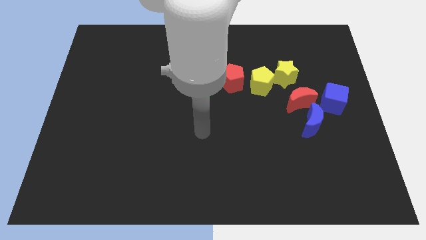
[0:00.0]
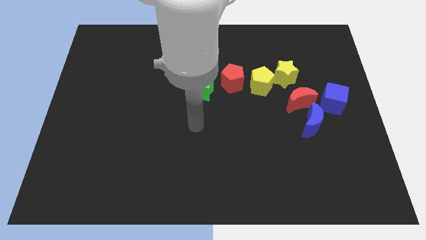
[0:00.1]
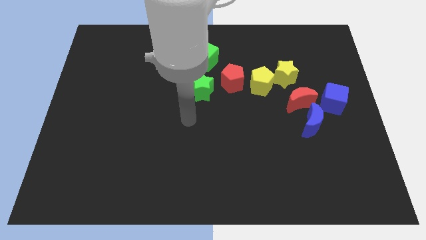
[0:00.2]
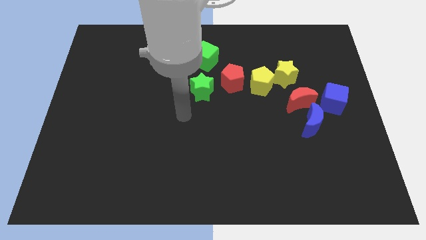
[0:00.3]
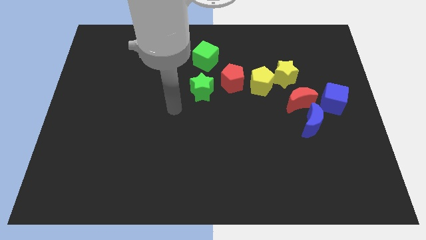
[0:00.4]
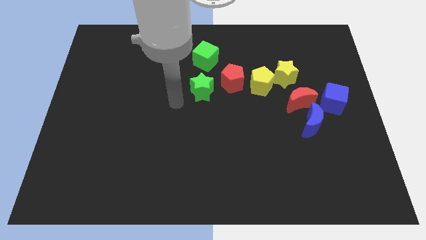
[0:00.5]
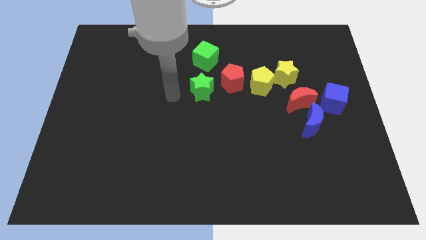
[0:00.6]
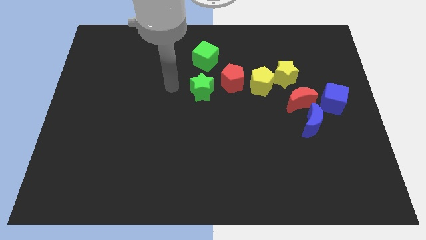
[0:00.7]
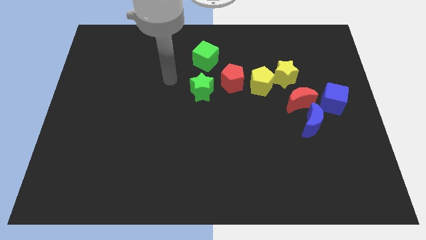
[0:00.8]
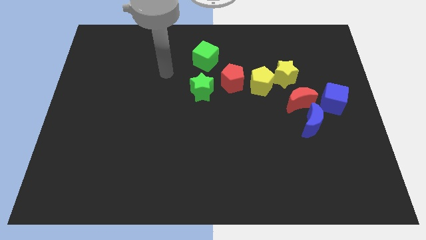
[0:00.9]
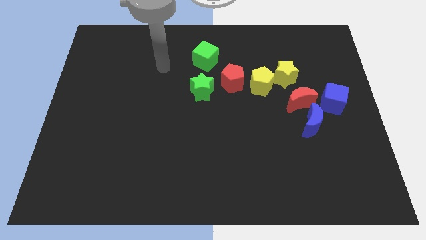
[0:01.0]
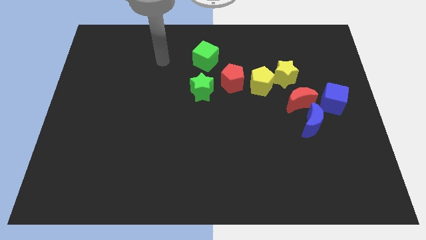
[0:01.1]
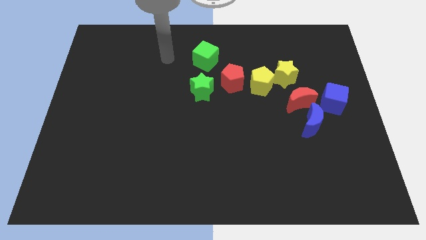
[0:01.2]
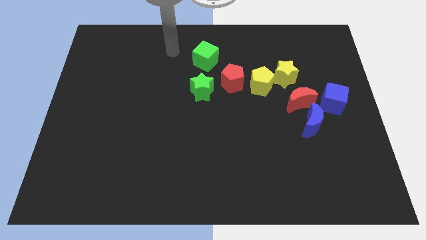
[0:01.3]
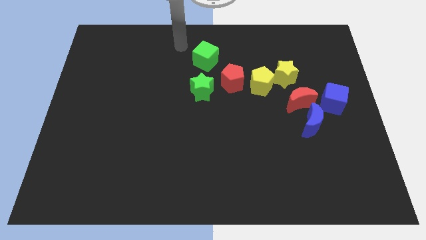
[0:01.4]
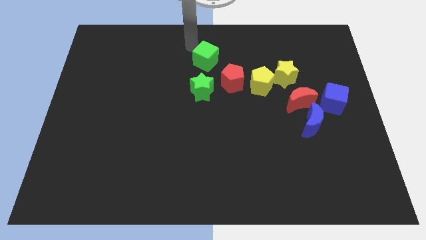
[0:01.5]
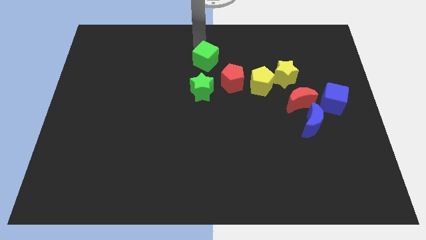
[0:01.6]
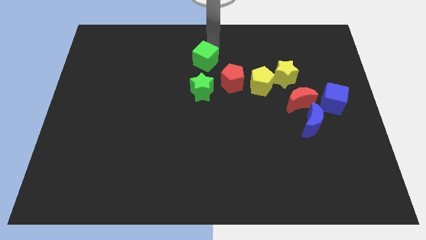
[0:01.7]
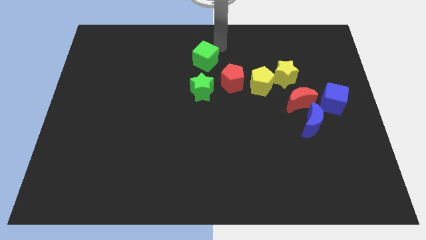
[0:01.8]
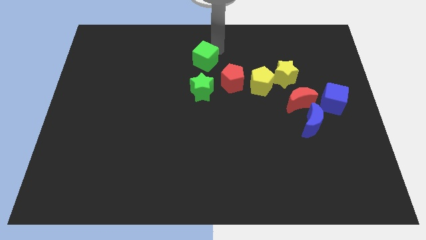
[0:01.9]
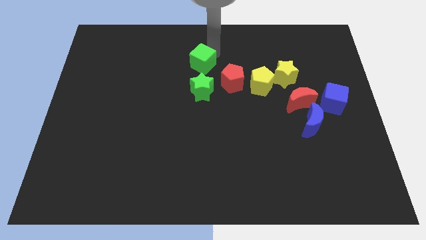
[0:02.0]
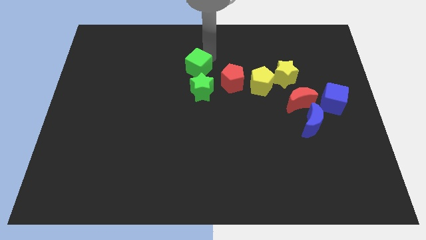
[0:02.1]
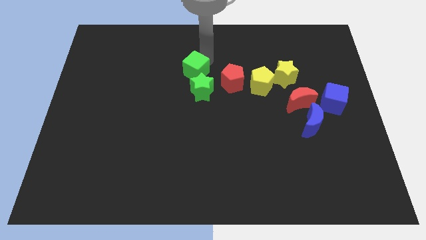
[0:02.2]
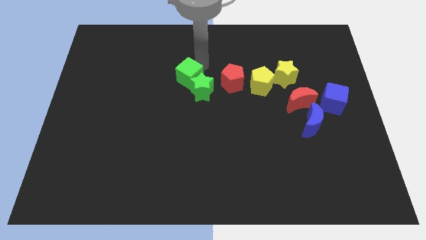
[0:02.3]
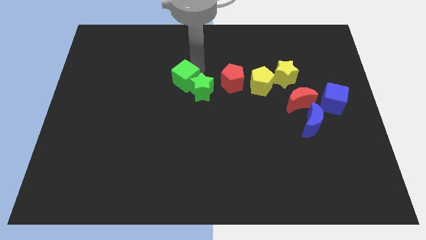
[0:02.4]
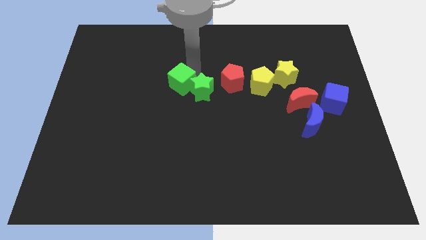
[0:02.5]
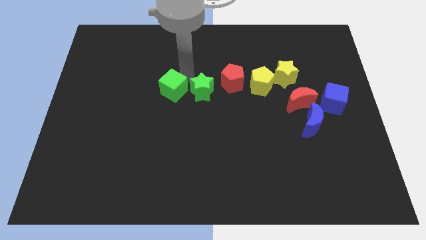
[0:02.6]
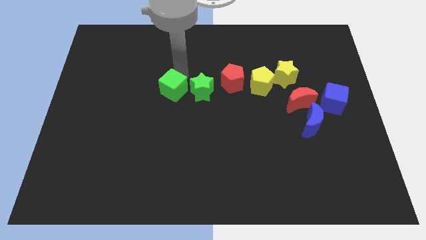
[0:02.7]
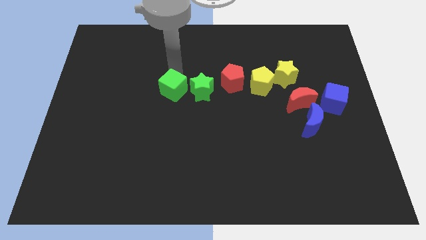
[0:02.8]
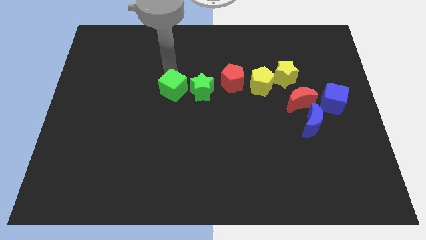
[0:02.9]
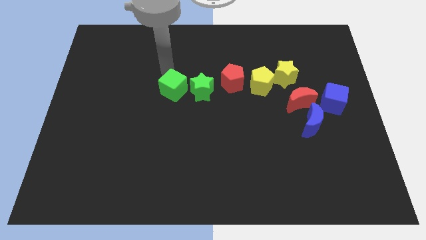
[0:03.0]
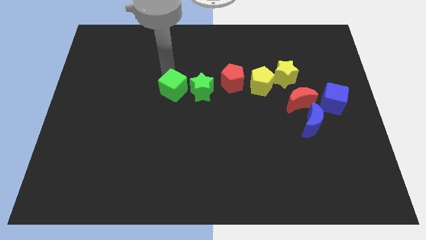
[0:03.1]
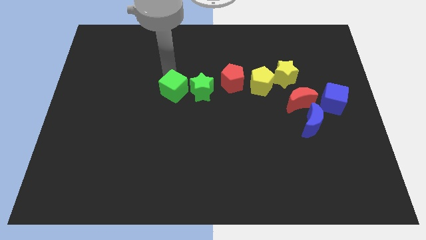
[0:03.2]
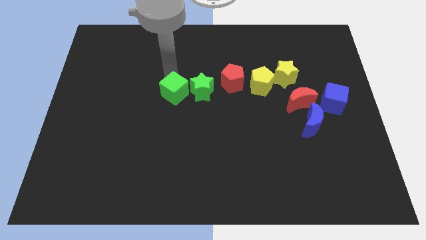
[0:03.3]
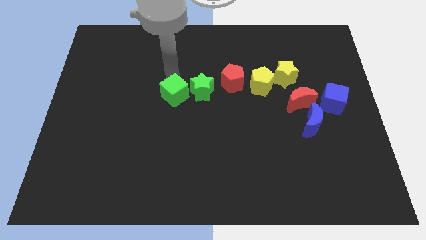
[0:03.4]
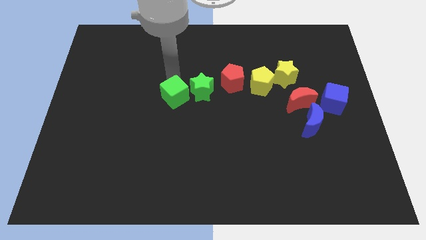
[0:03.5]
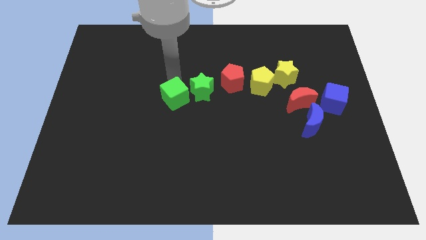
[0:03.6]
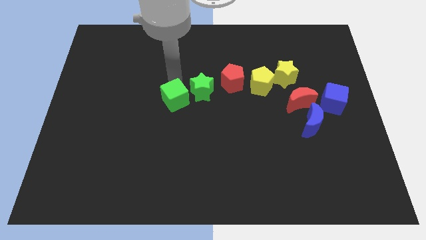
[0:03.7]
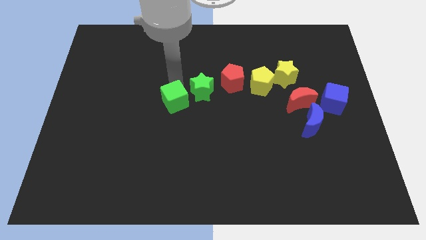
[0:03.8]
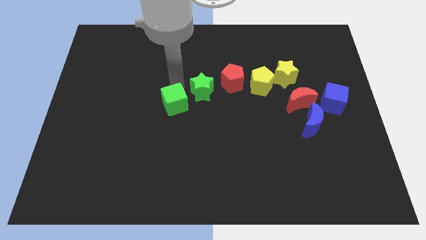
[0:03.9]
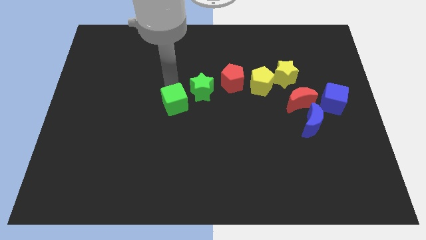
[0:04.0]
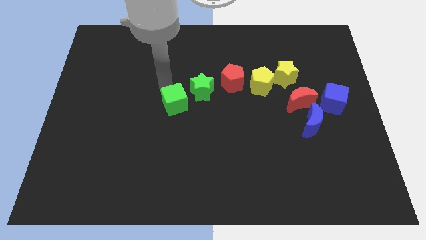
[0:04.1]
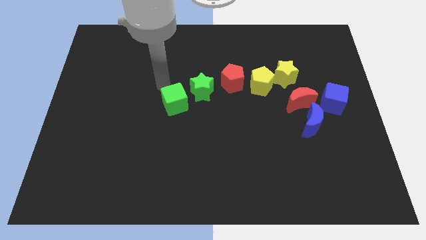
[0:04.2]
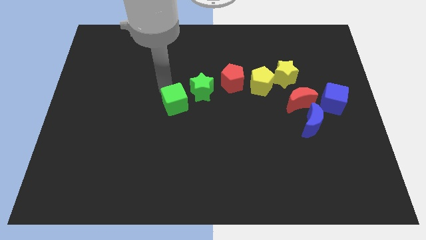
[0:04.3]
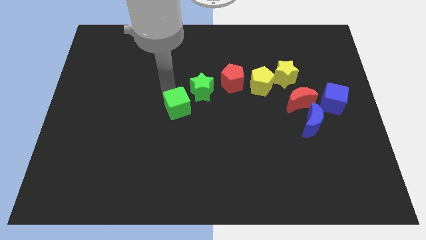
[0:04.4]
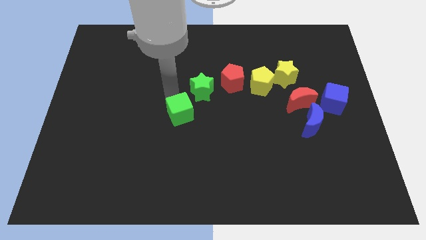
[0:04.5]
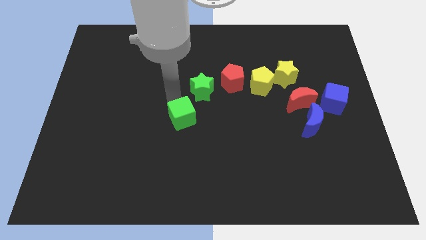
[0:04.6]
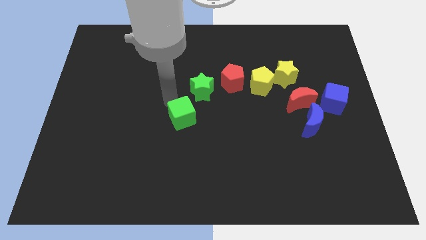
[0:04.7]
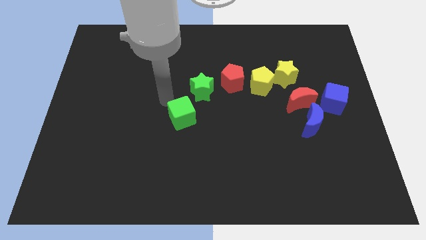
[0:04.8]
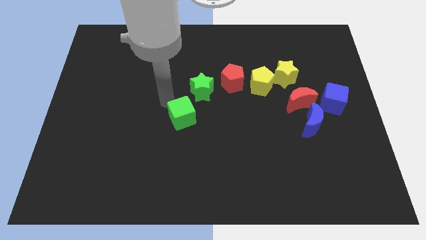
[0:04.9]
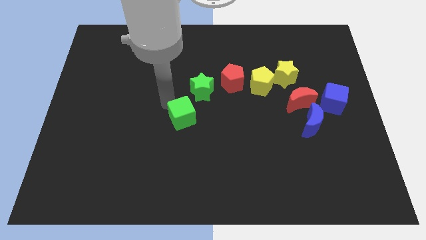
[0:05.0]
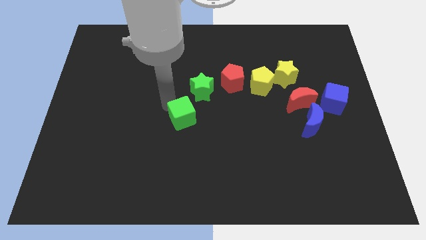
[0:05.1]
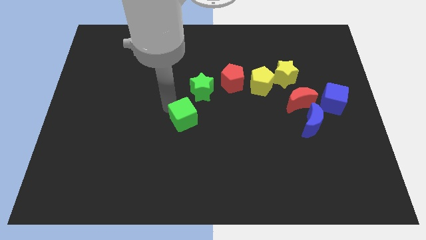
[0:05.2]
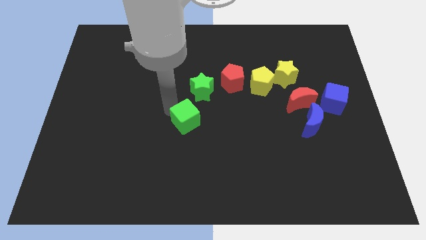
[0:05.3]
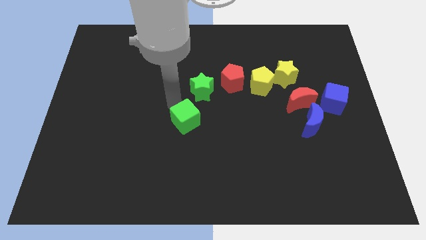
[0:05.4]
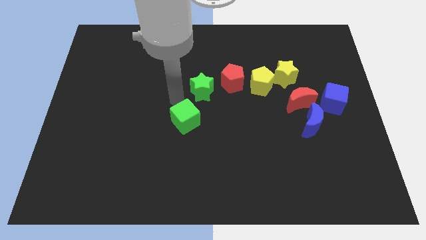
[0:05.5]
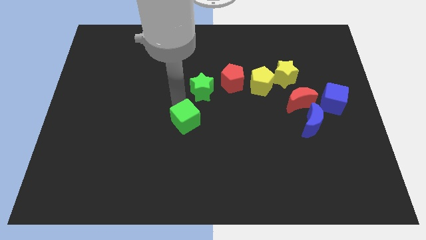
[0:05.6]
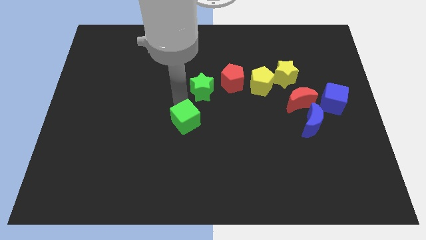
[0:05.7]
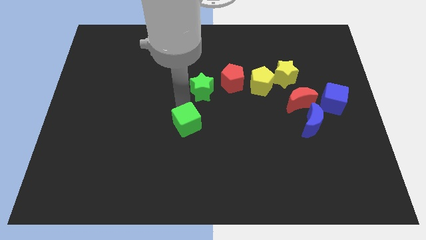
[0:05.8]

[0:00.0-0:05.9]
move the green cube down

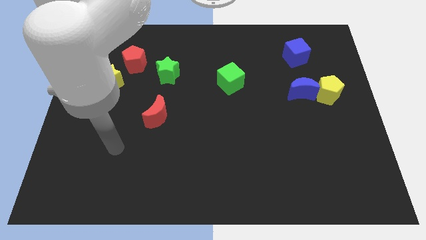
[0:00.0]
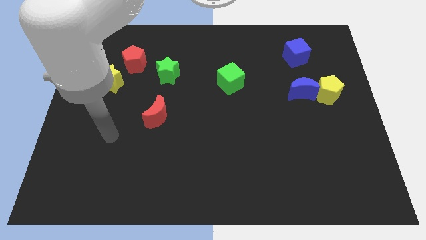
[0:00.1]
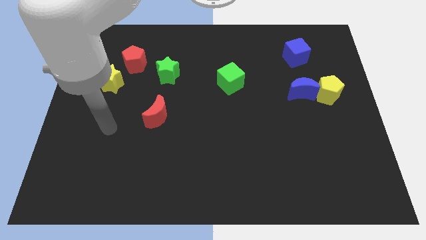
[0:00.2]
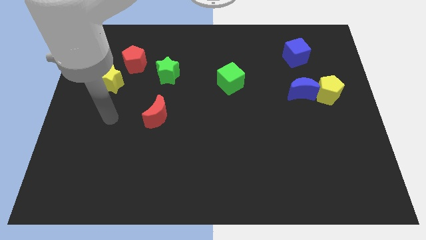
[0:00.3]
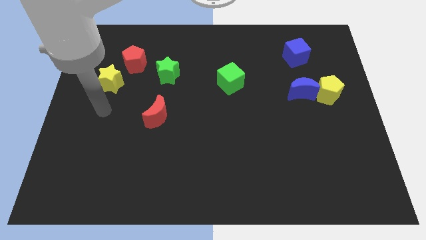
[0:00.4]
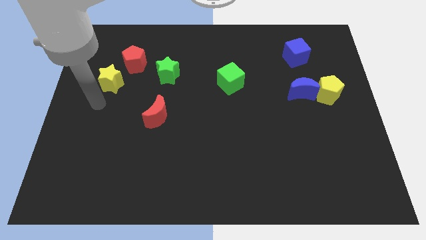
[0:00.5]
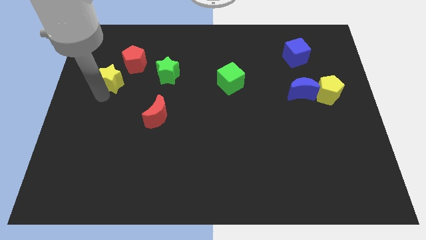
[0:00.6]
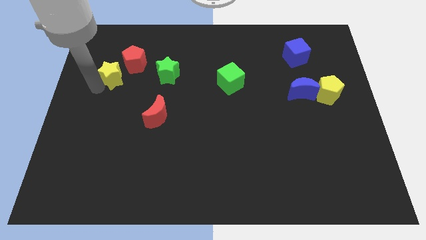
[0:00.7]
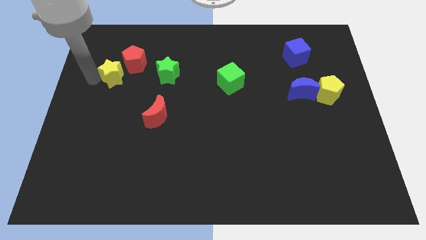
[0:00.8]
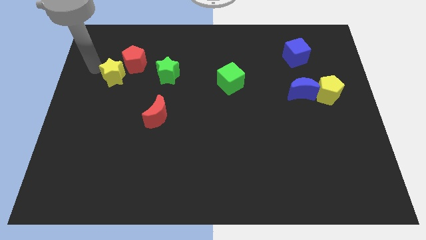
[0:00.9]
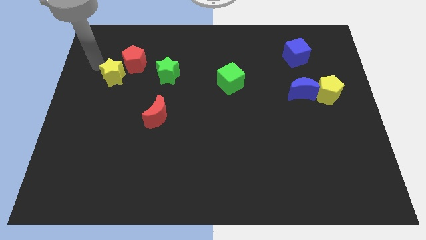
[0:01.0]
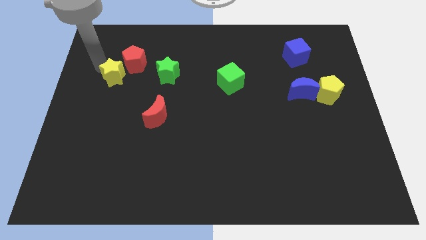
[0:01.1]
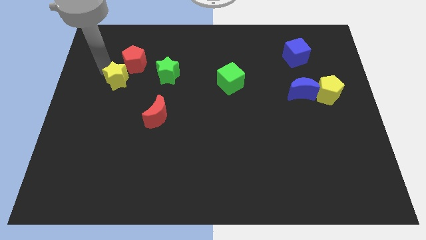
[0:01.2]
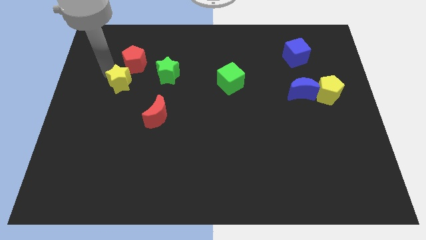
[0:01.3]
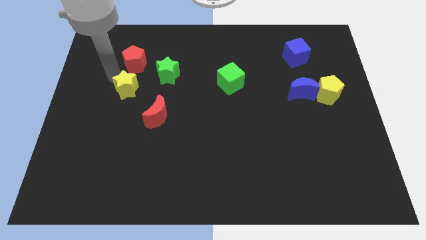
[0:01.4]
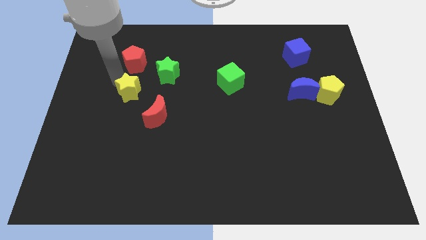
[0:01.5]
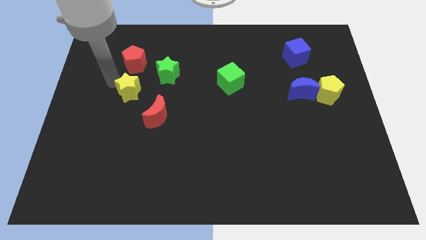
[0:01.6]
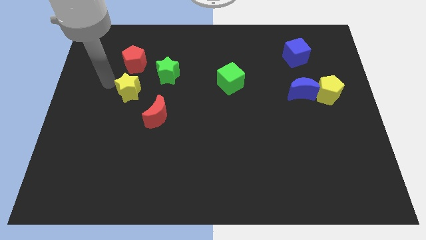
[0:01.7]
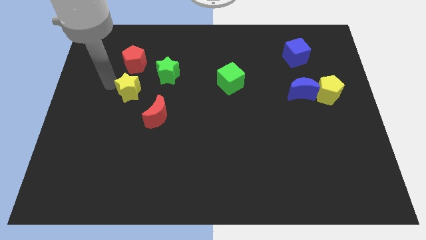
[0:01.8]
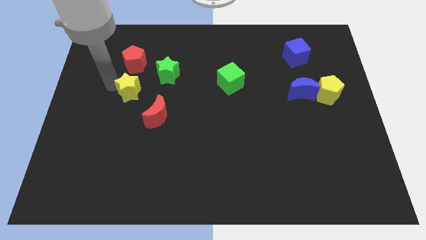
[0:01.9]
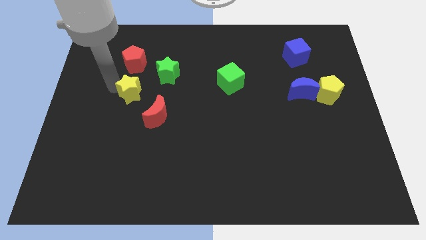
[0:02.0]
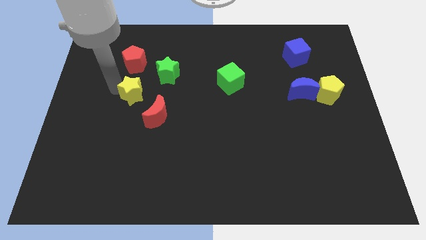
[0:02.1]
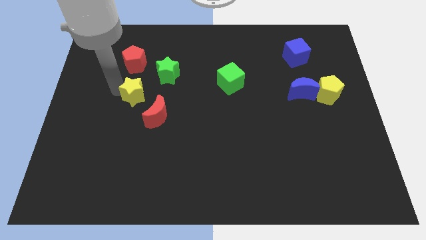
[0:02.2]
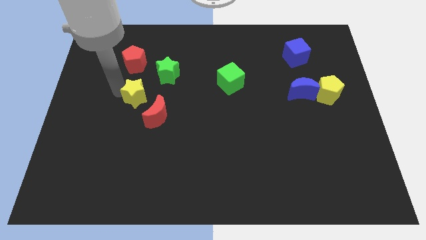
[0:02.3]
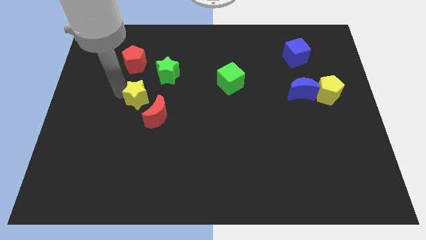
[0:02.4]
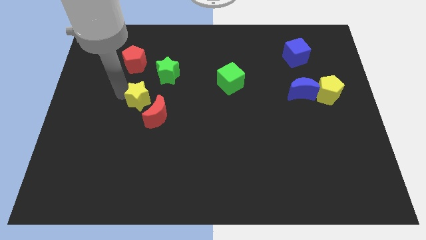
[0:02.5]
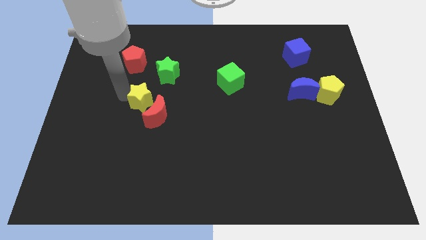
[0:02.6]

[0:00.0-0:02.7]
move the yellow star to the right a little bit
